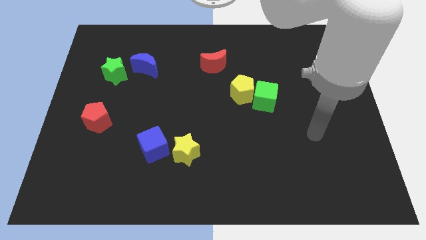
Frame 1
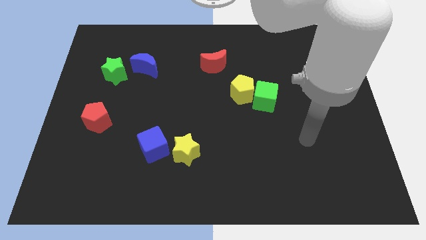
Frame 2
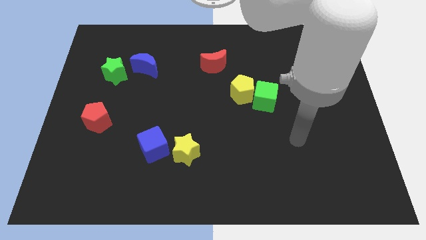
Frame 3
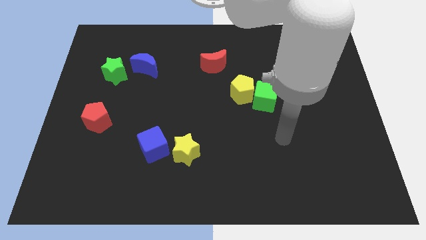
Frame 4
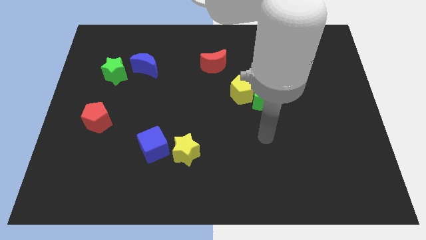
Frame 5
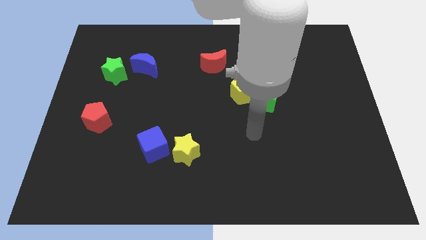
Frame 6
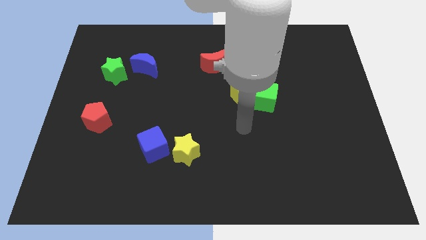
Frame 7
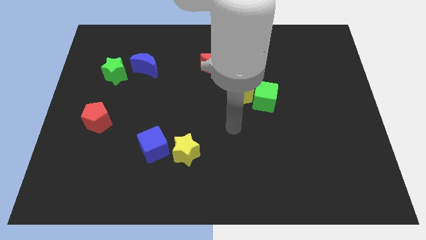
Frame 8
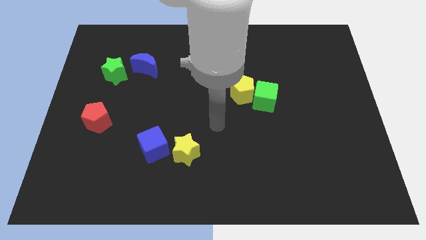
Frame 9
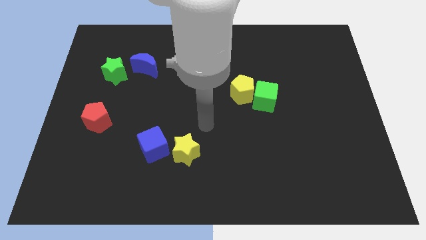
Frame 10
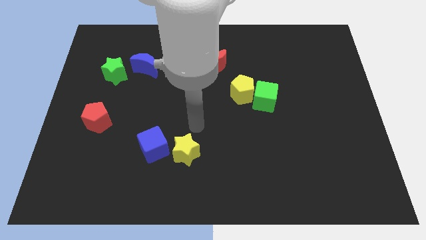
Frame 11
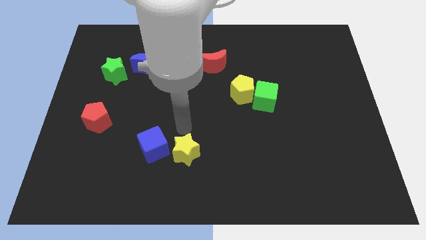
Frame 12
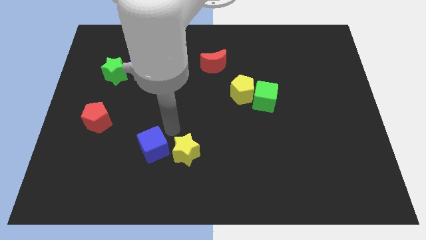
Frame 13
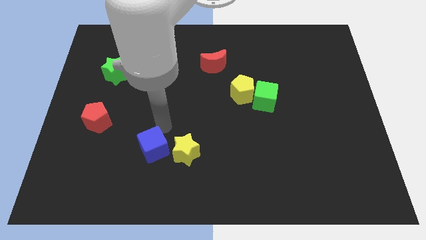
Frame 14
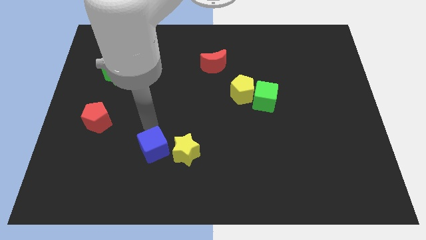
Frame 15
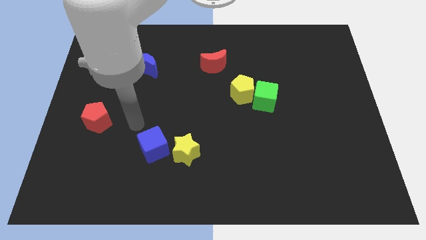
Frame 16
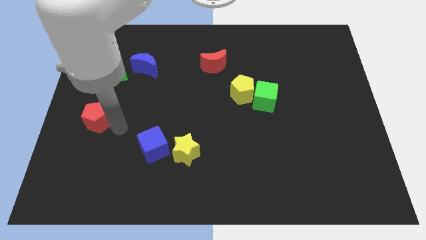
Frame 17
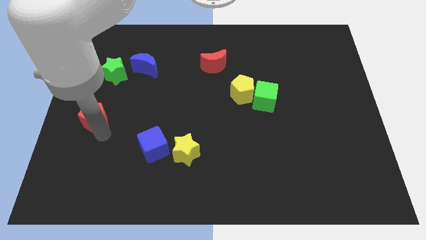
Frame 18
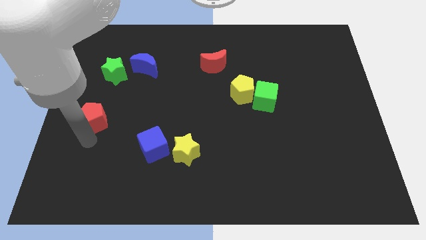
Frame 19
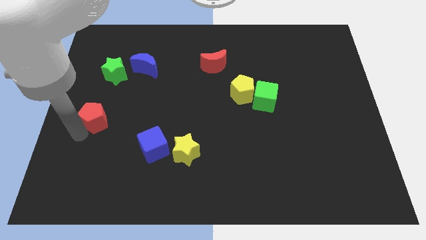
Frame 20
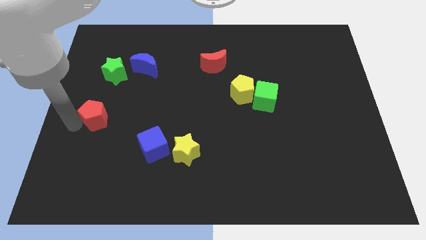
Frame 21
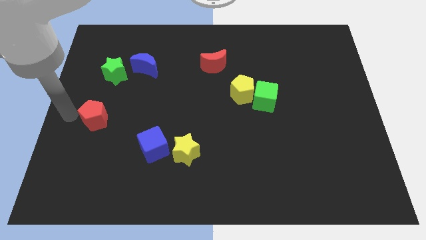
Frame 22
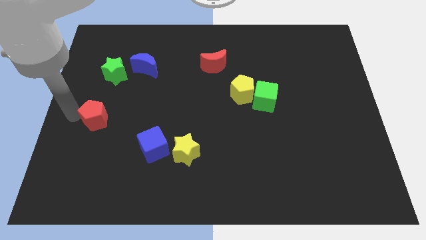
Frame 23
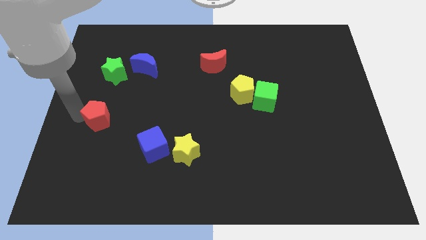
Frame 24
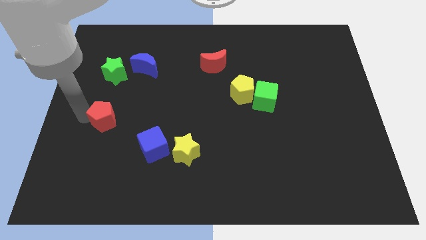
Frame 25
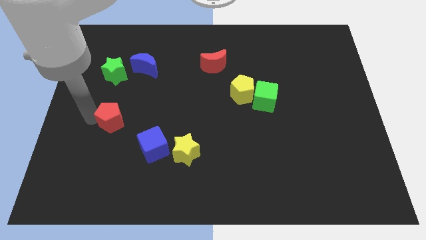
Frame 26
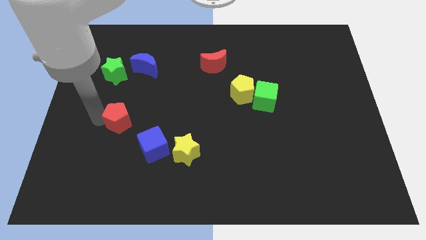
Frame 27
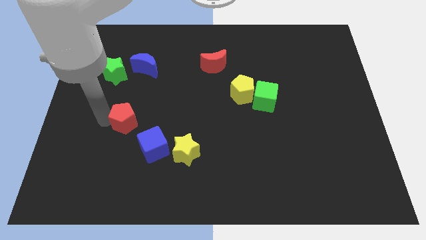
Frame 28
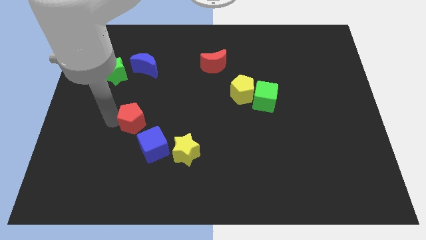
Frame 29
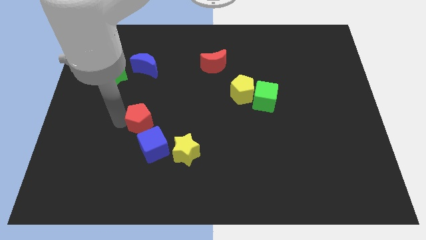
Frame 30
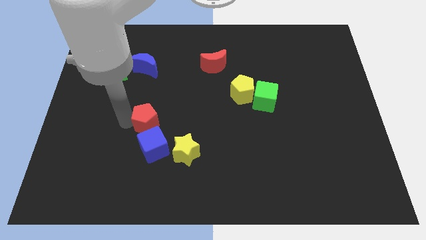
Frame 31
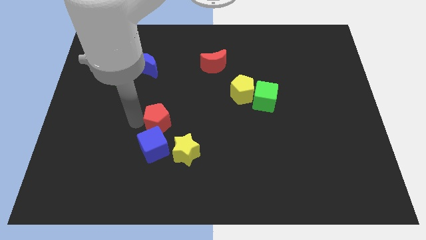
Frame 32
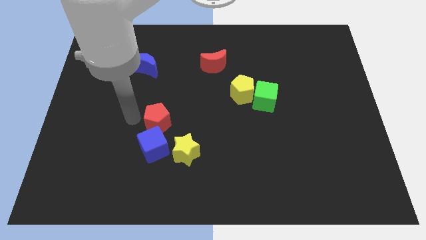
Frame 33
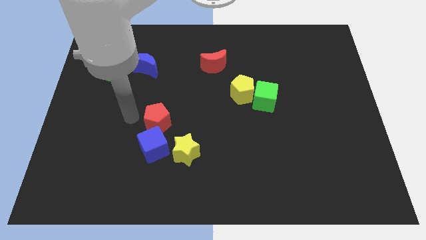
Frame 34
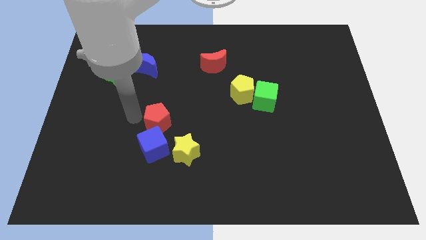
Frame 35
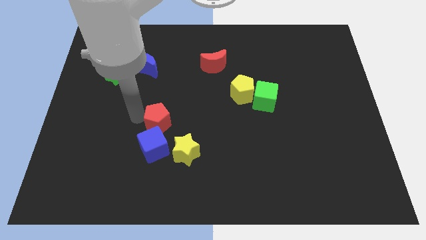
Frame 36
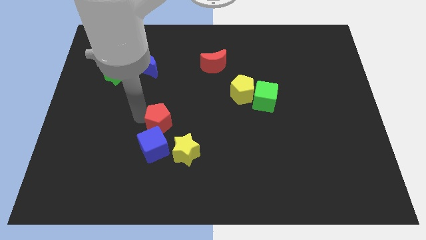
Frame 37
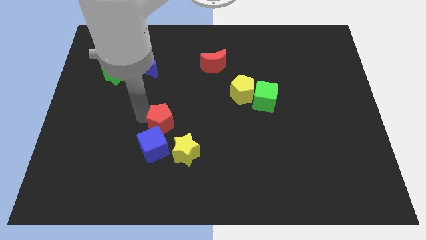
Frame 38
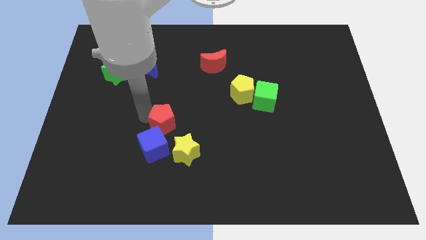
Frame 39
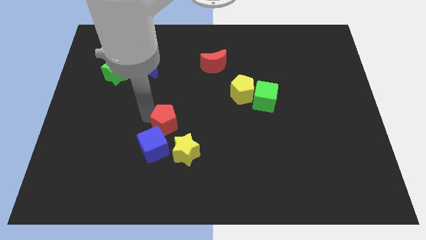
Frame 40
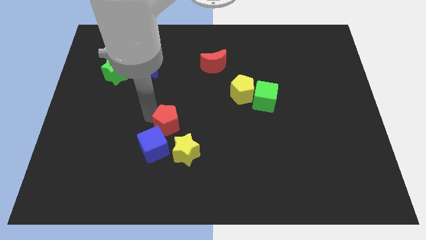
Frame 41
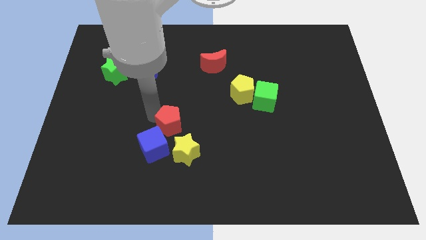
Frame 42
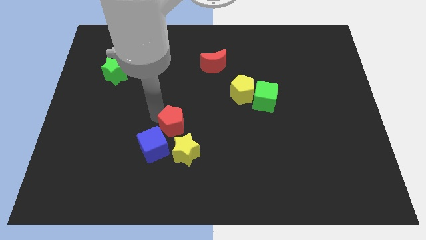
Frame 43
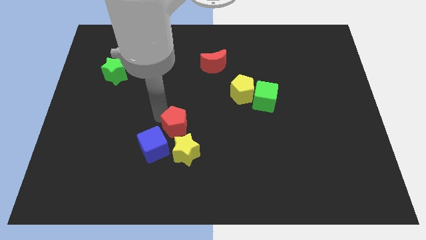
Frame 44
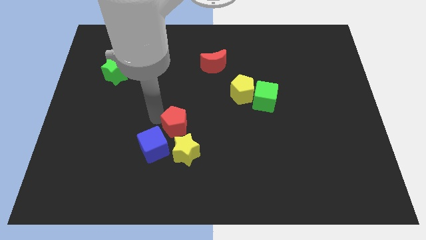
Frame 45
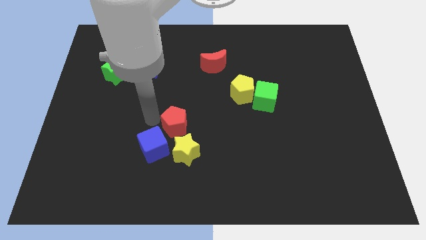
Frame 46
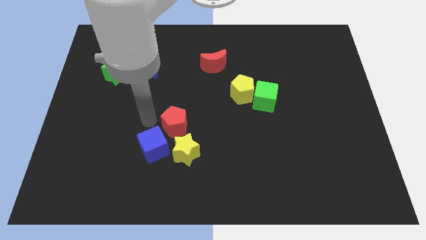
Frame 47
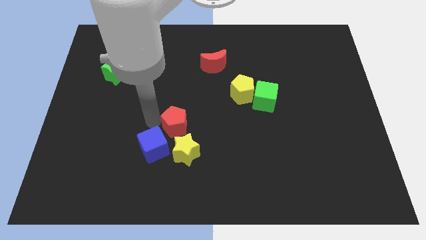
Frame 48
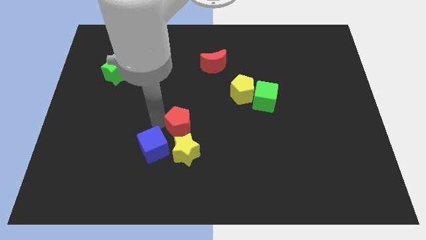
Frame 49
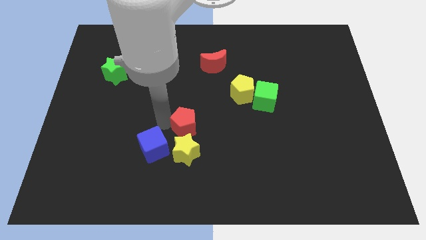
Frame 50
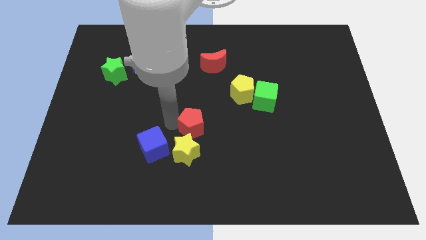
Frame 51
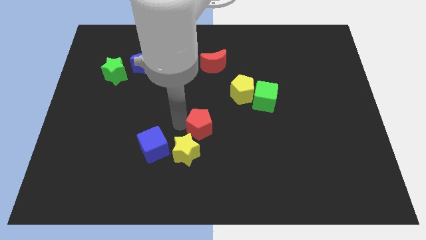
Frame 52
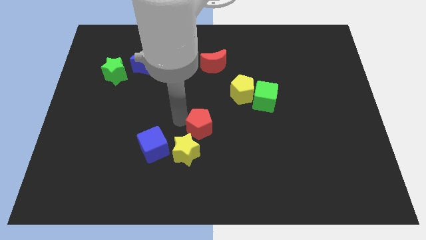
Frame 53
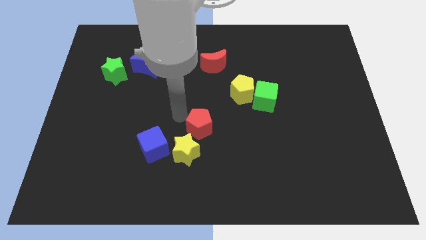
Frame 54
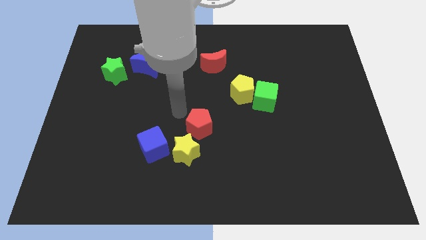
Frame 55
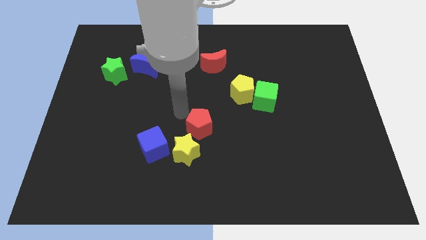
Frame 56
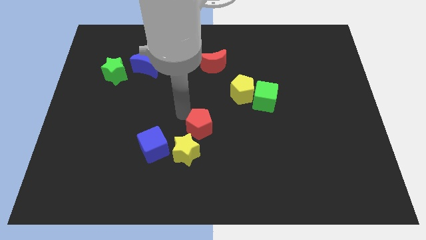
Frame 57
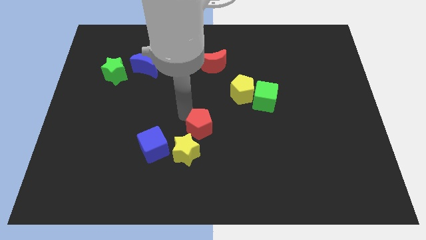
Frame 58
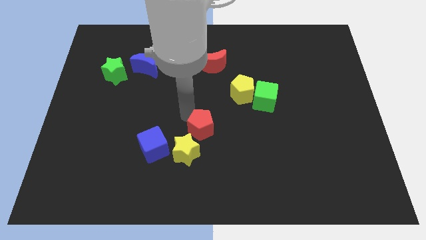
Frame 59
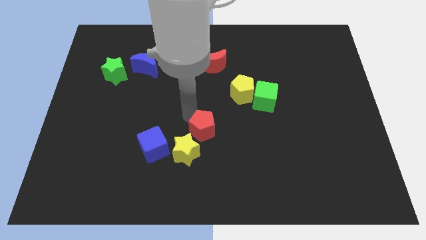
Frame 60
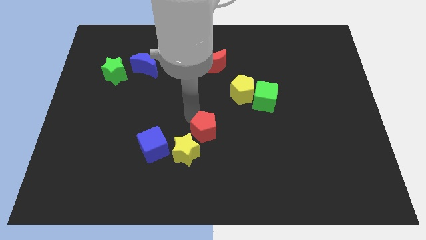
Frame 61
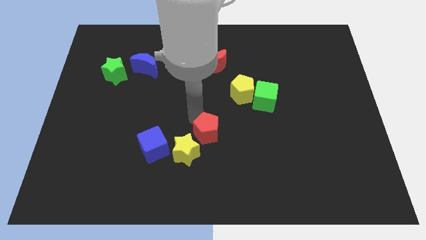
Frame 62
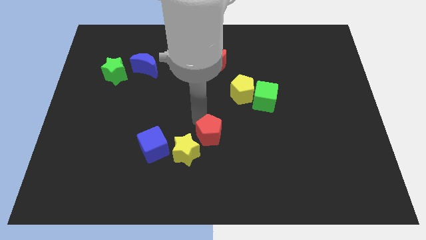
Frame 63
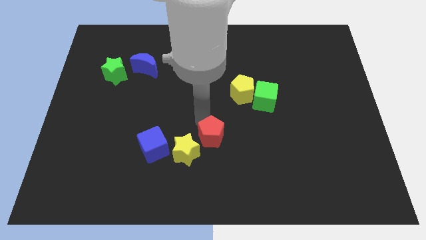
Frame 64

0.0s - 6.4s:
put the red pentagon just right of the yellow star
